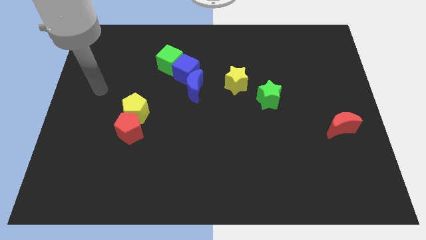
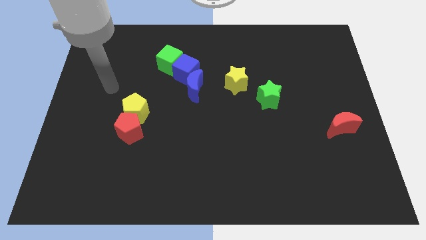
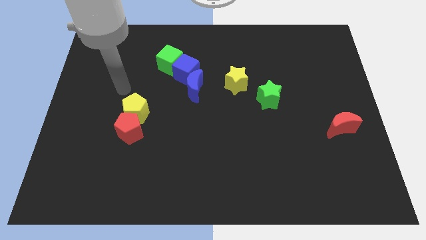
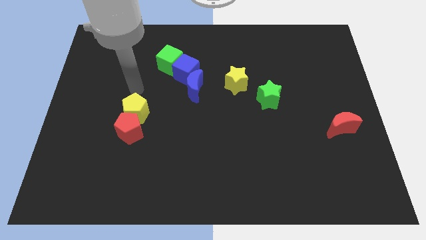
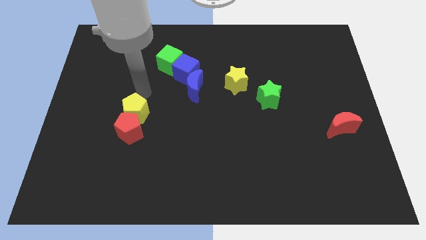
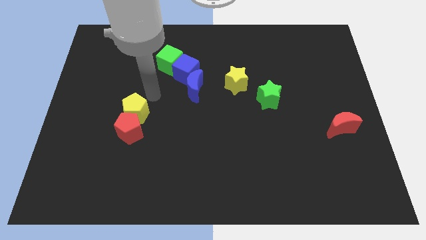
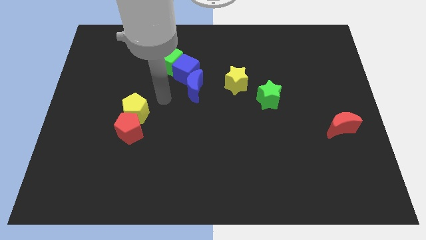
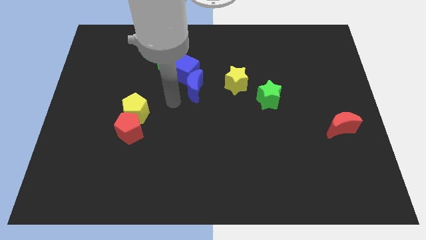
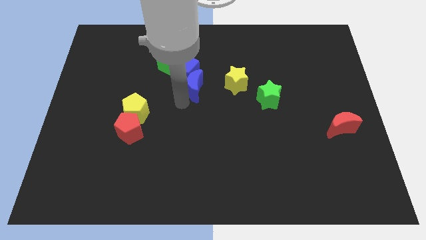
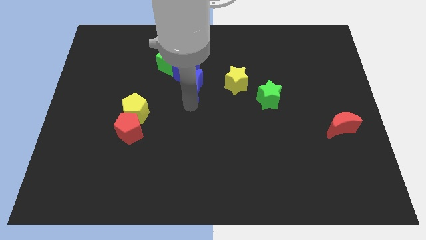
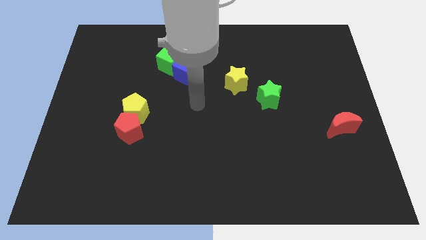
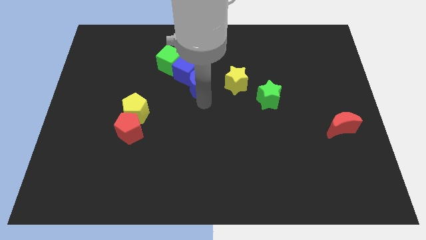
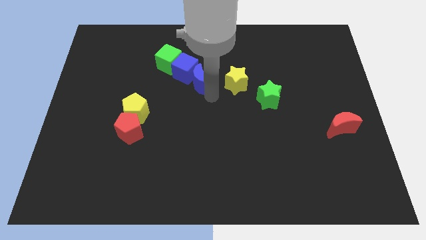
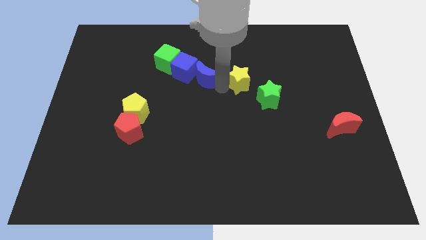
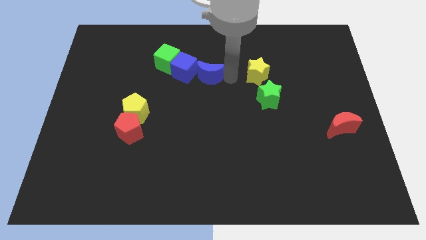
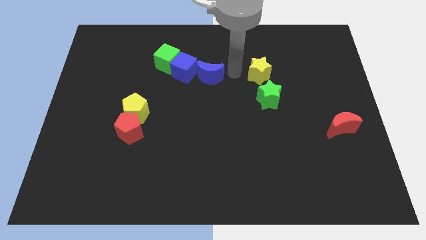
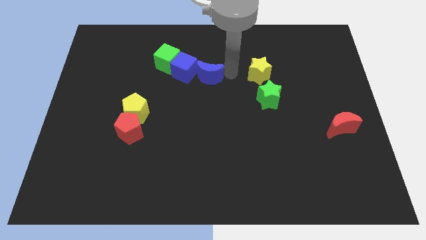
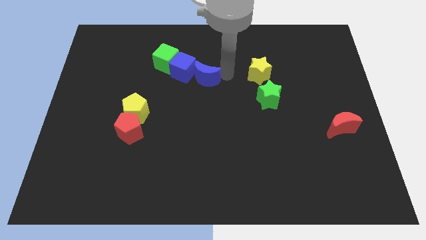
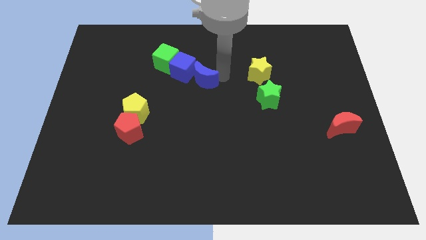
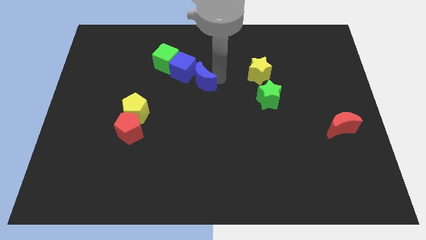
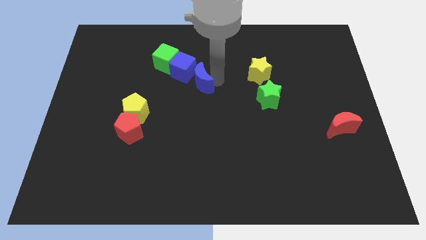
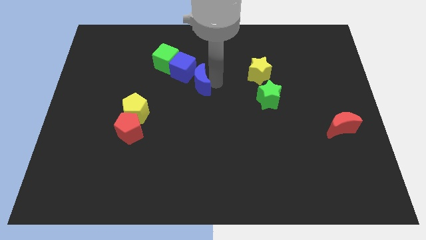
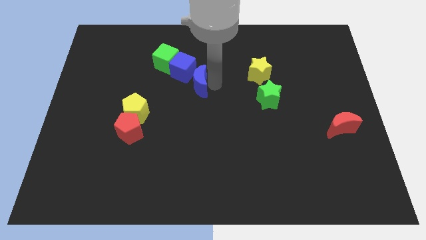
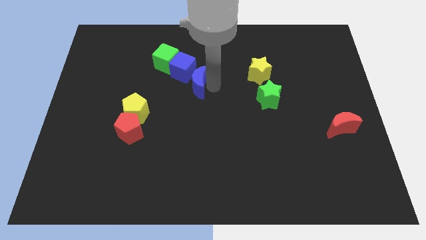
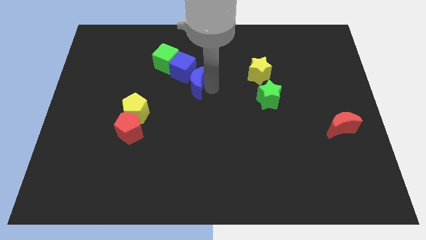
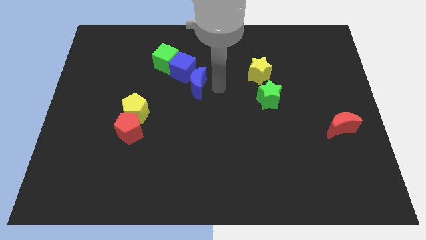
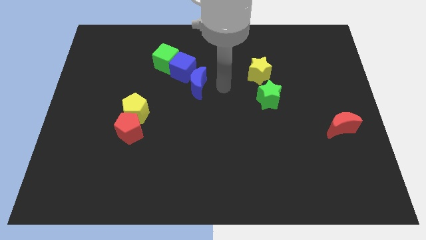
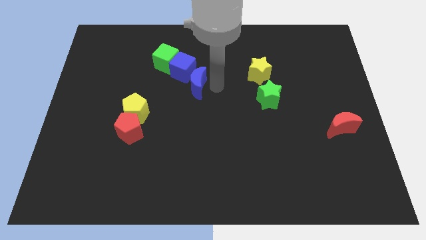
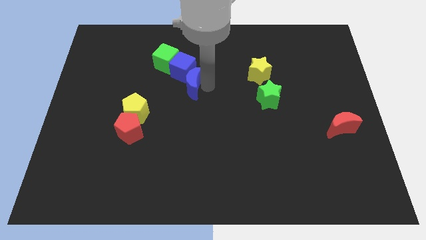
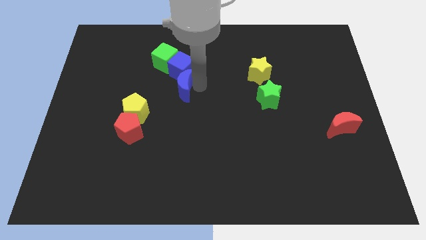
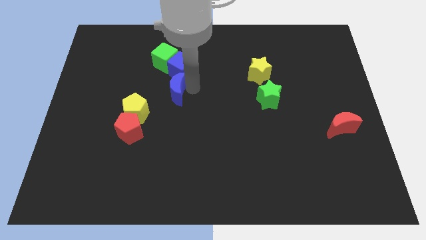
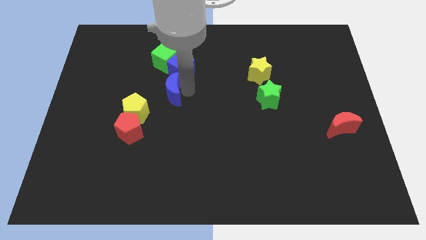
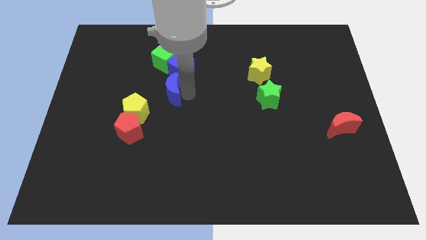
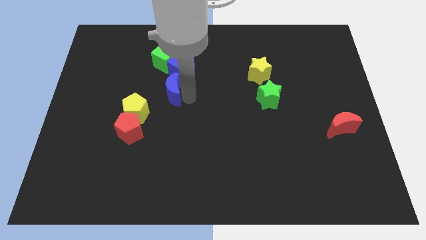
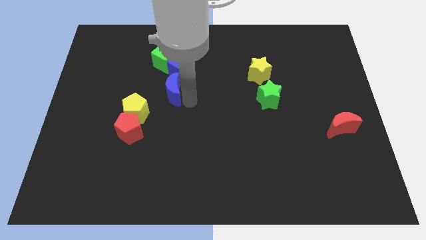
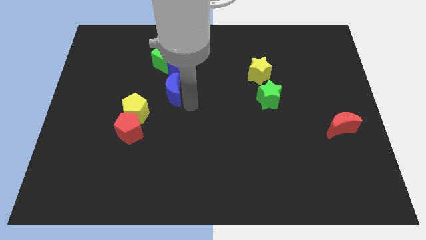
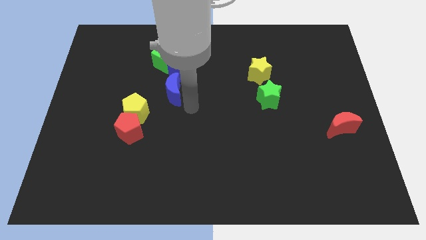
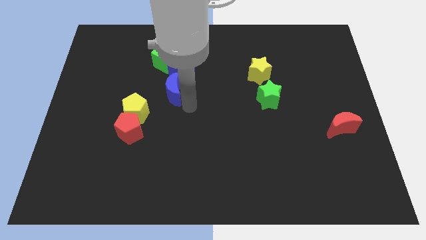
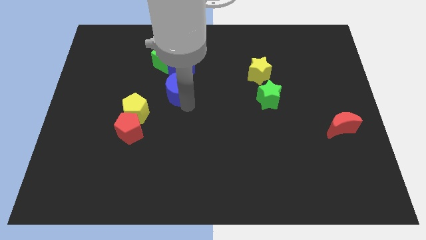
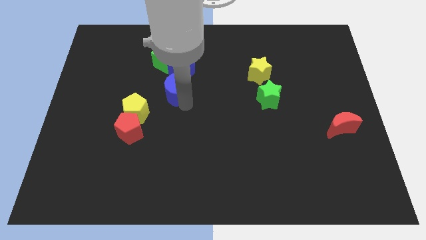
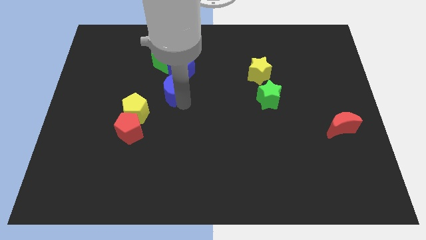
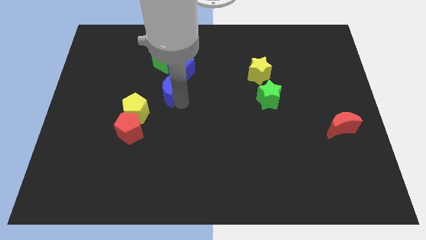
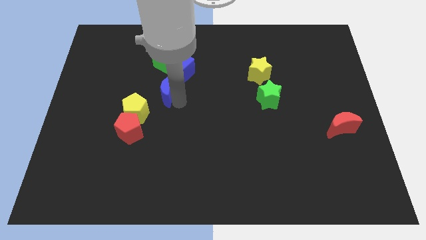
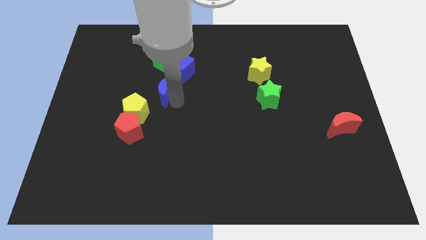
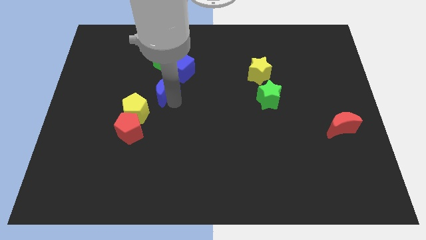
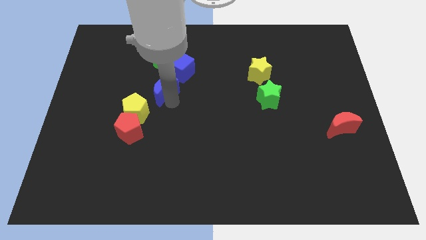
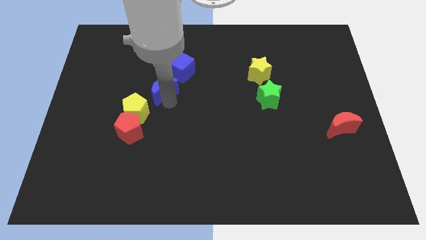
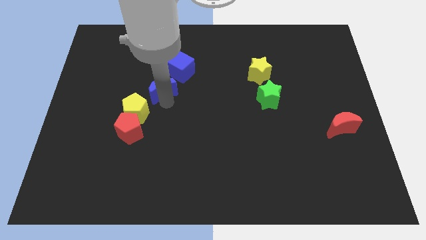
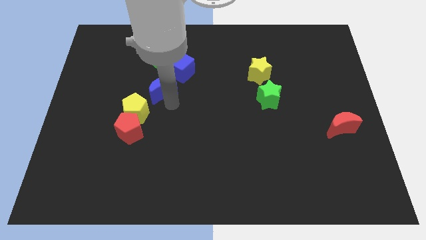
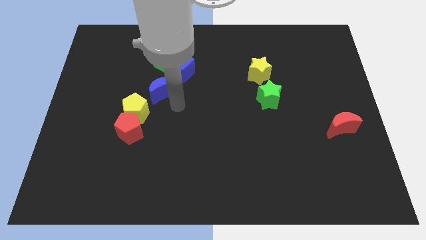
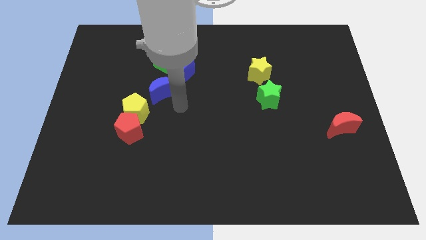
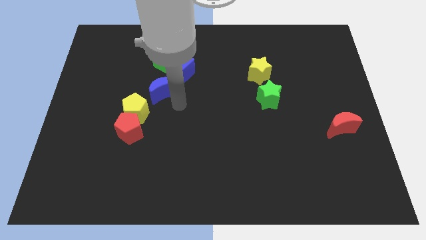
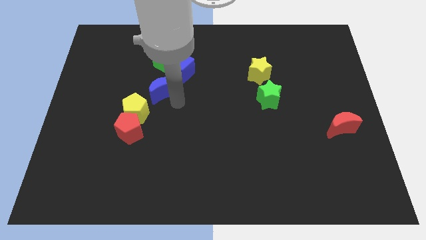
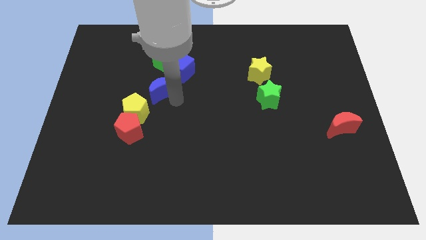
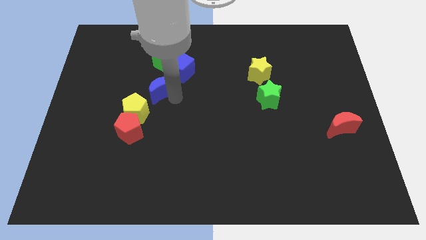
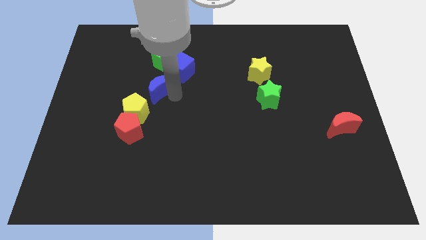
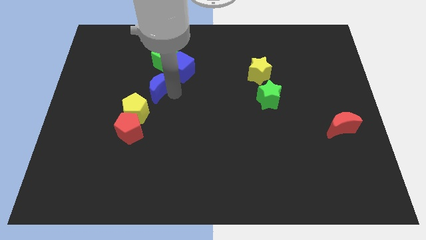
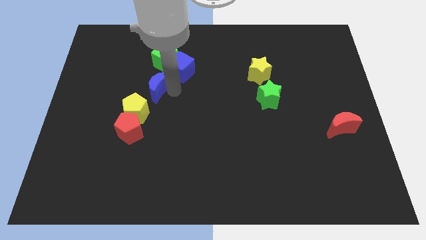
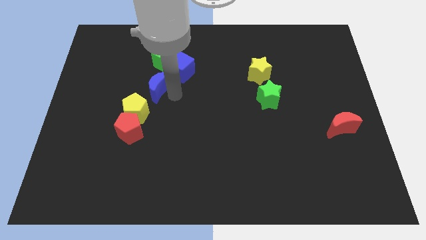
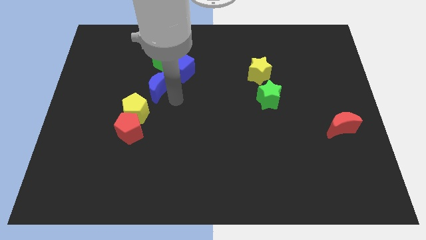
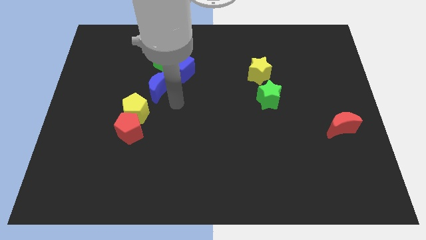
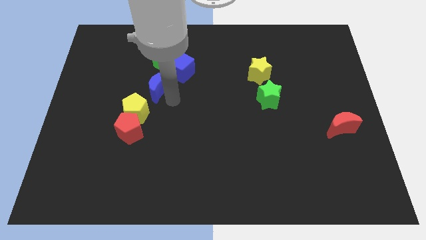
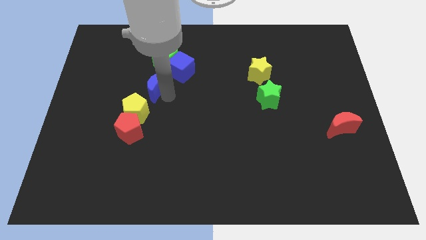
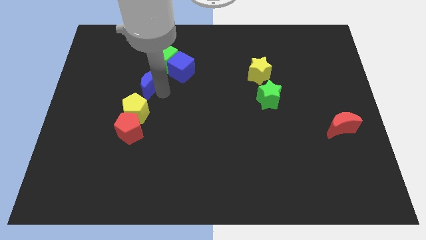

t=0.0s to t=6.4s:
move the blue moon to the bottom left side of the green cube

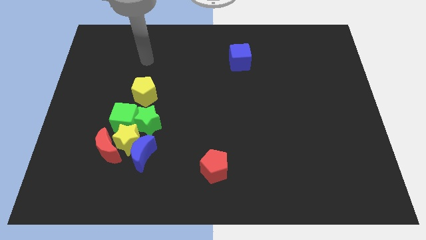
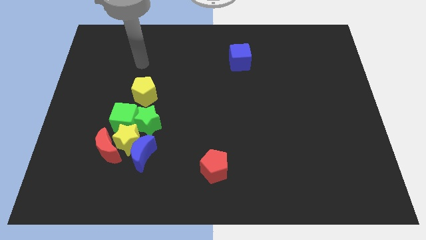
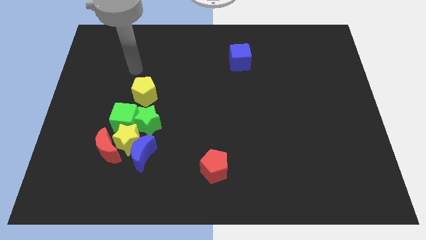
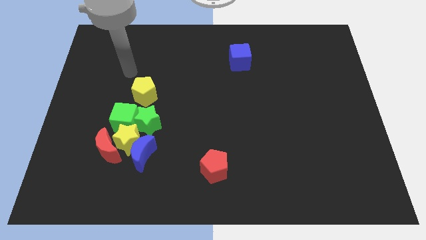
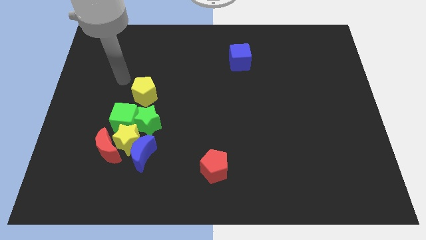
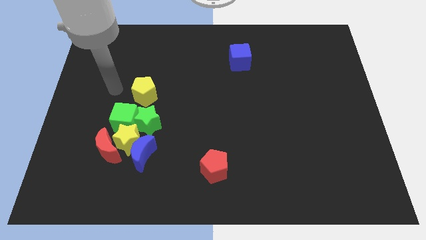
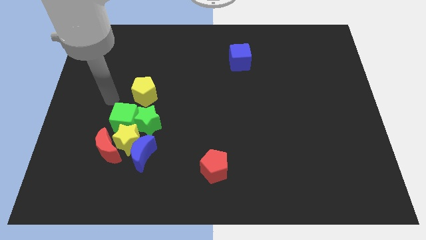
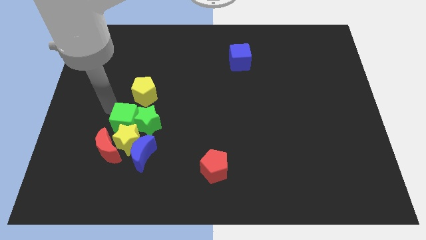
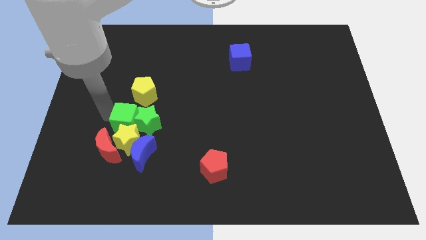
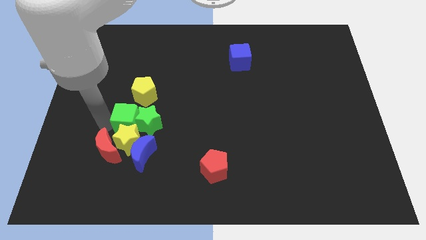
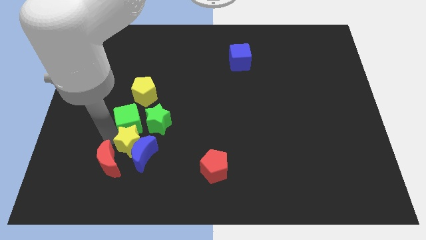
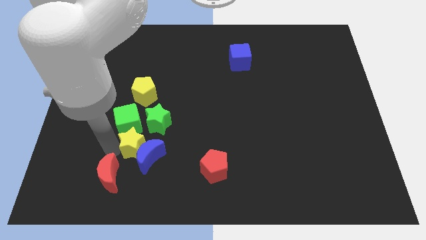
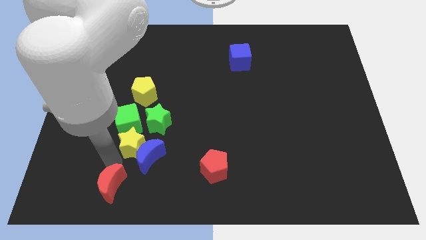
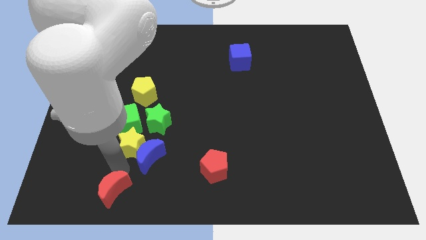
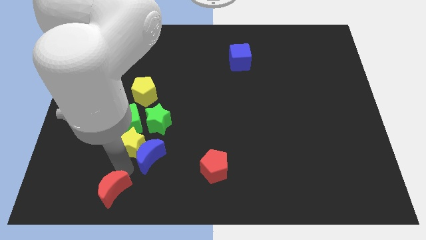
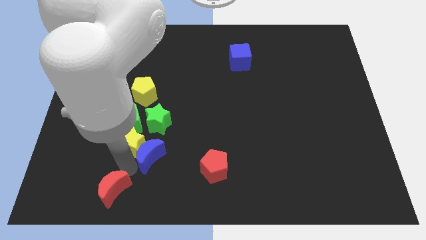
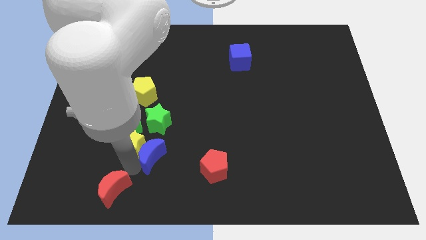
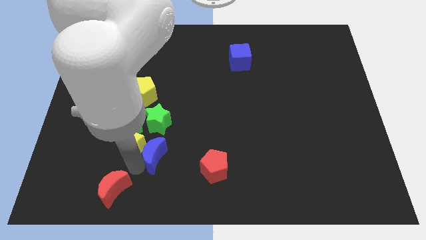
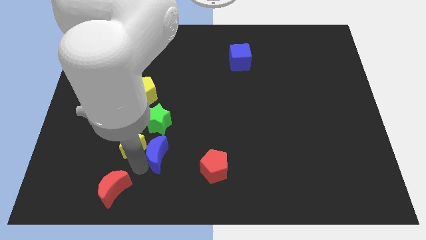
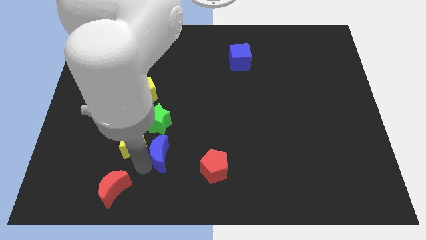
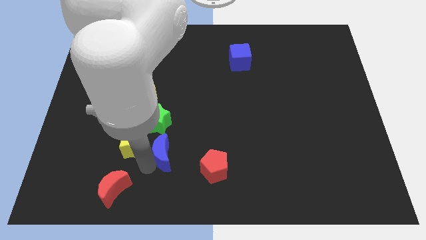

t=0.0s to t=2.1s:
move the blue moon to the bottom right side of the green star
